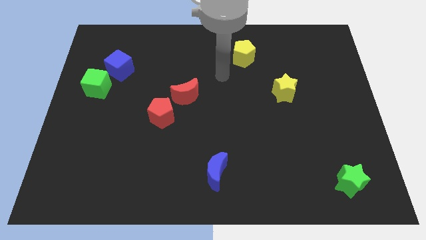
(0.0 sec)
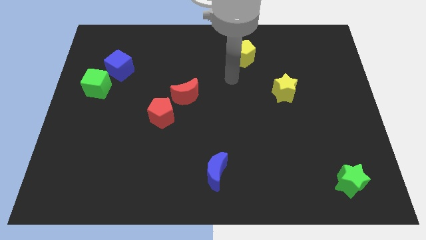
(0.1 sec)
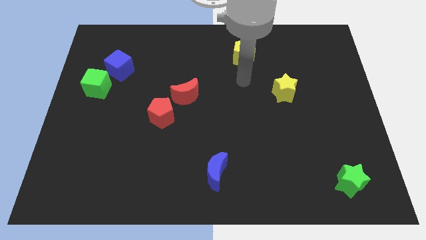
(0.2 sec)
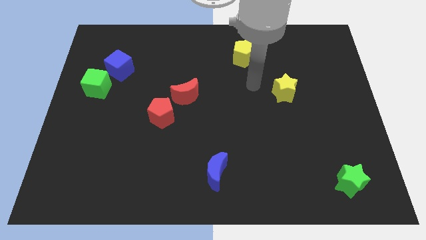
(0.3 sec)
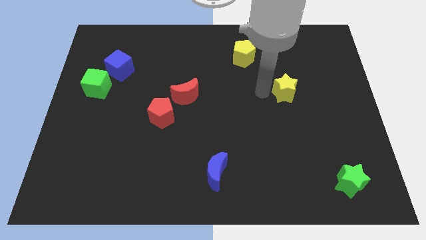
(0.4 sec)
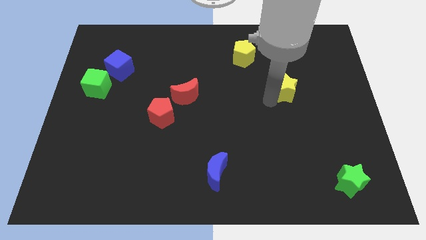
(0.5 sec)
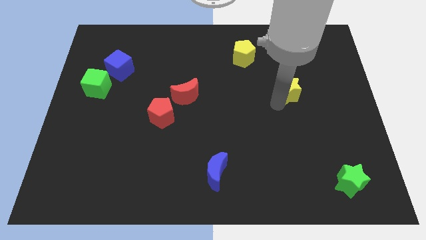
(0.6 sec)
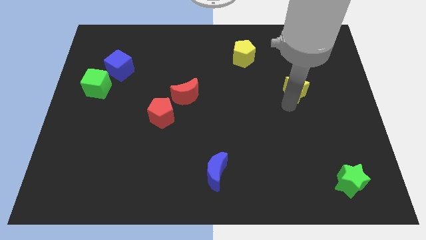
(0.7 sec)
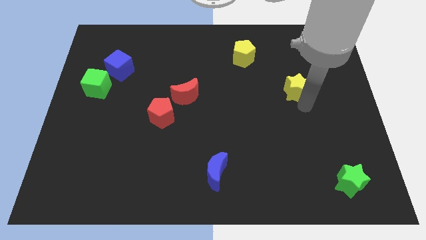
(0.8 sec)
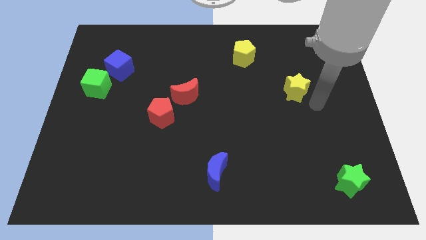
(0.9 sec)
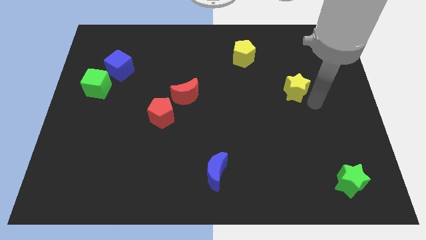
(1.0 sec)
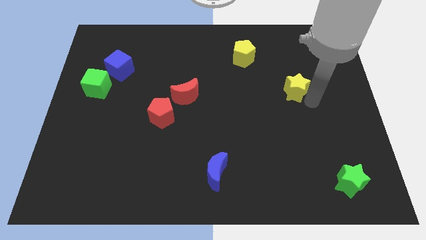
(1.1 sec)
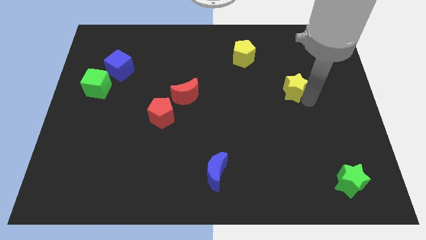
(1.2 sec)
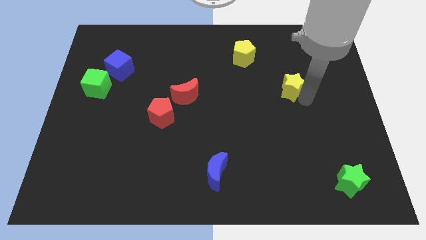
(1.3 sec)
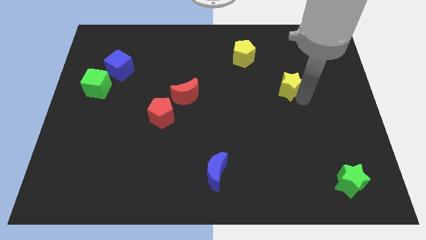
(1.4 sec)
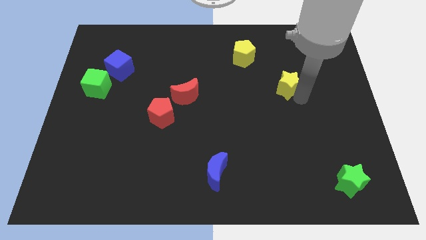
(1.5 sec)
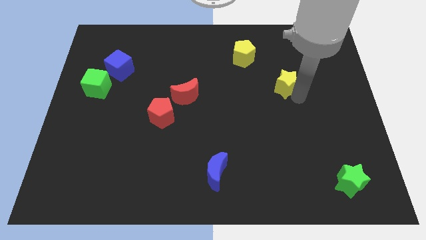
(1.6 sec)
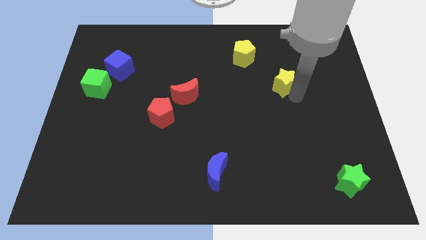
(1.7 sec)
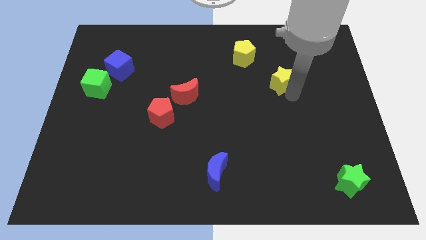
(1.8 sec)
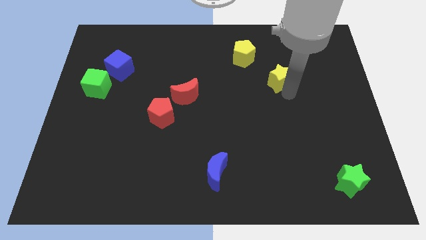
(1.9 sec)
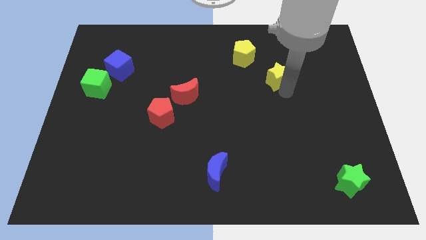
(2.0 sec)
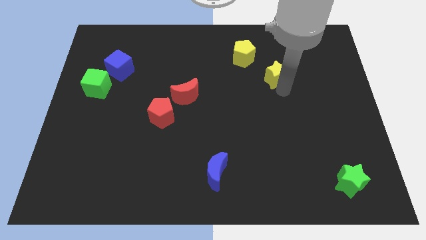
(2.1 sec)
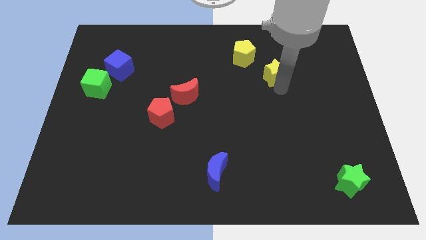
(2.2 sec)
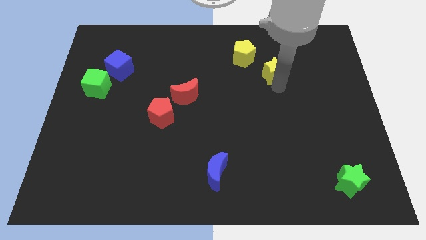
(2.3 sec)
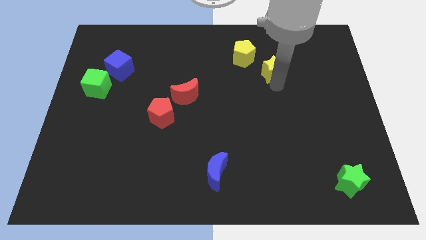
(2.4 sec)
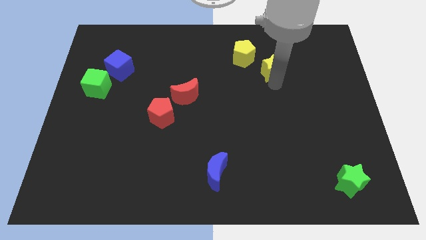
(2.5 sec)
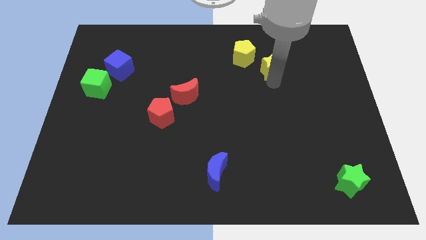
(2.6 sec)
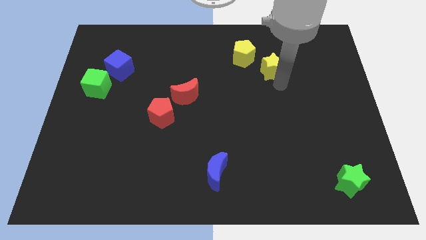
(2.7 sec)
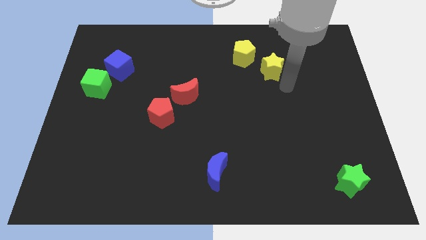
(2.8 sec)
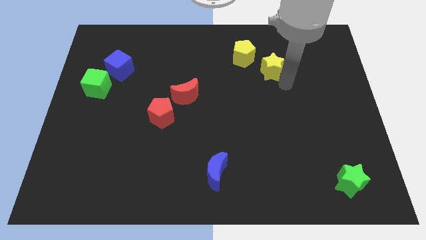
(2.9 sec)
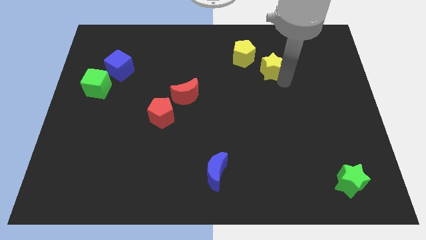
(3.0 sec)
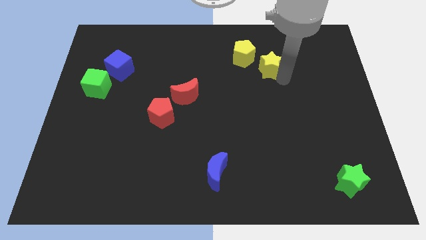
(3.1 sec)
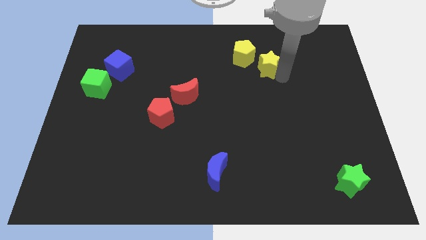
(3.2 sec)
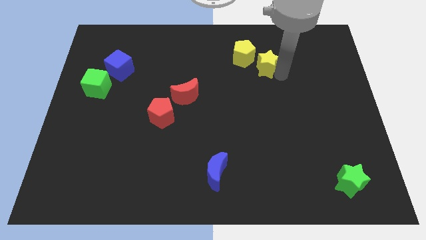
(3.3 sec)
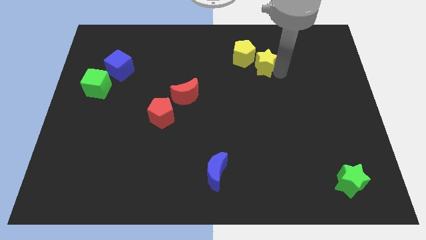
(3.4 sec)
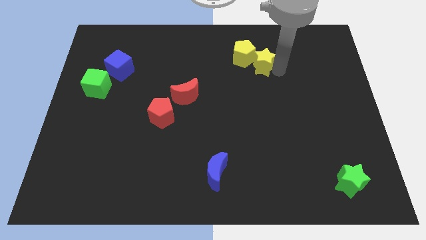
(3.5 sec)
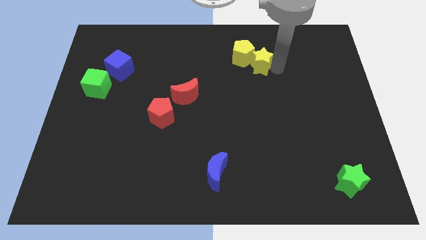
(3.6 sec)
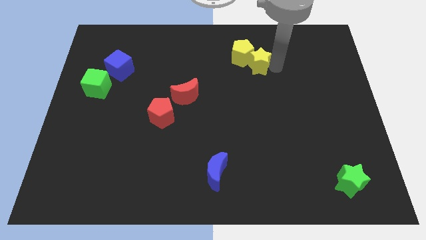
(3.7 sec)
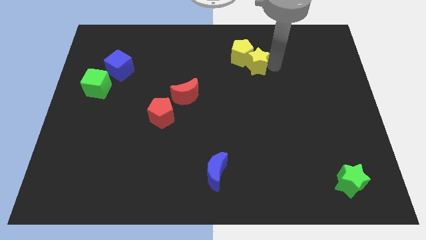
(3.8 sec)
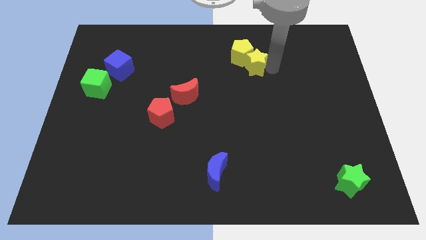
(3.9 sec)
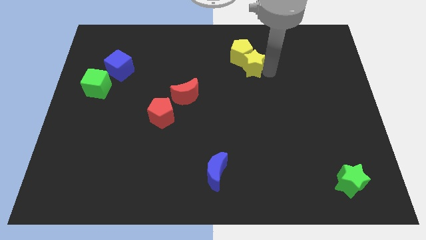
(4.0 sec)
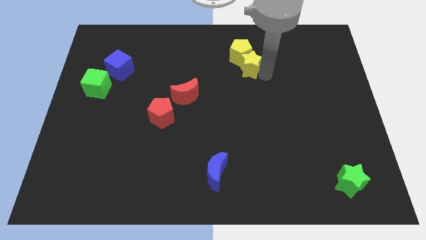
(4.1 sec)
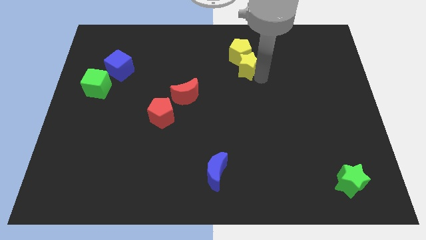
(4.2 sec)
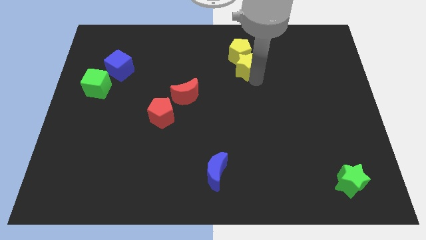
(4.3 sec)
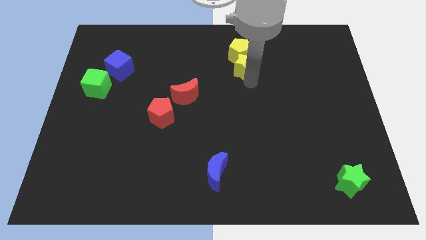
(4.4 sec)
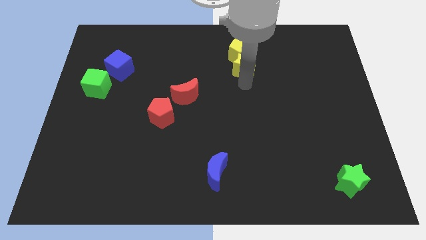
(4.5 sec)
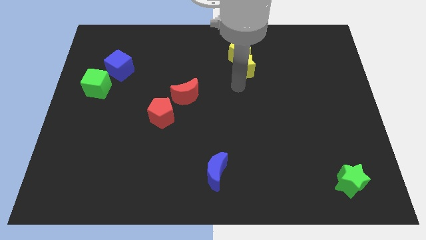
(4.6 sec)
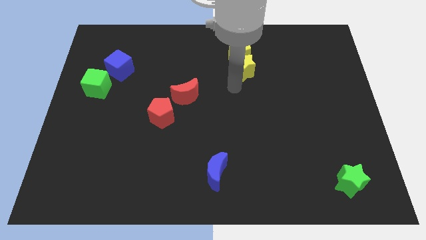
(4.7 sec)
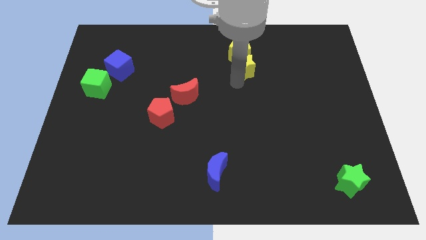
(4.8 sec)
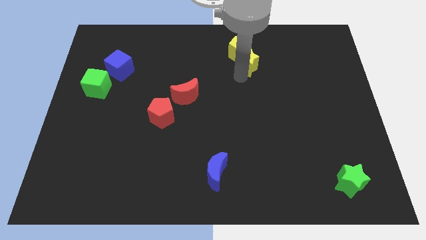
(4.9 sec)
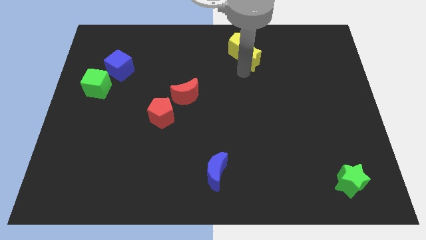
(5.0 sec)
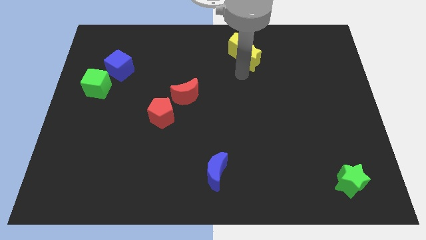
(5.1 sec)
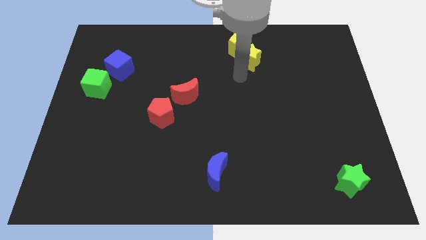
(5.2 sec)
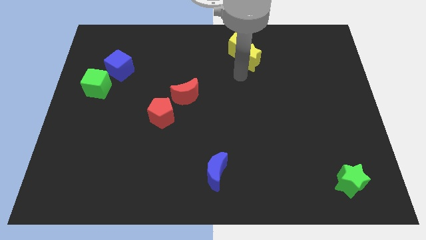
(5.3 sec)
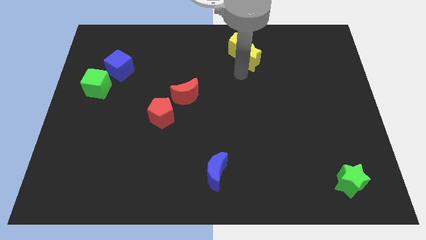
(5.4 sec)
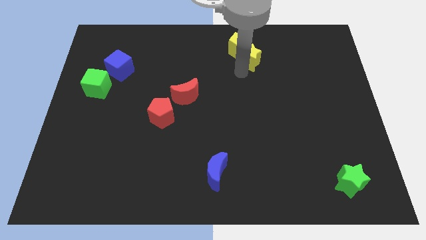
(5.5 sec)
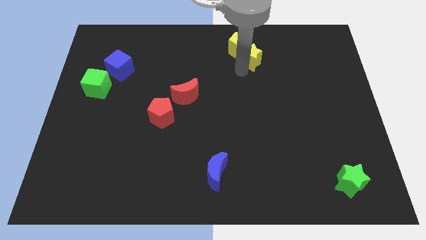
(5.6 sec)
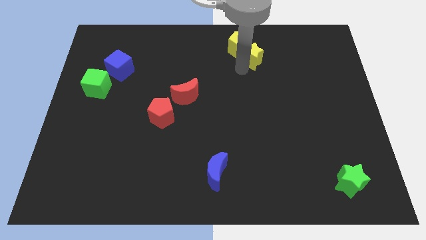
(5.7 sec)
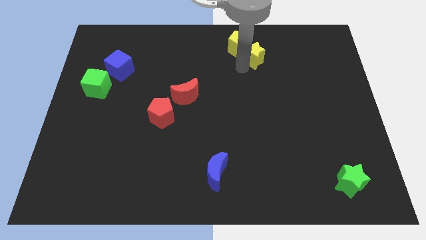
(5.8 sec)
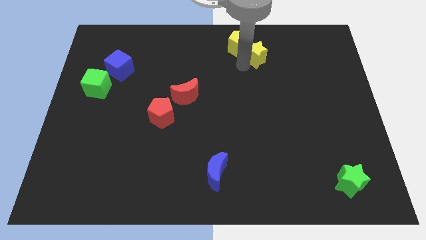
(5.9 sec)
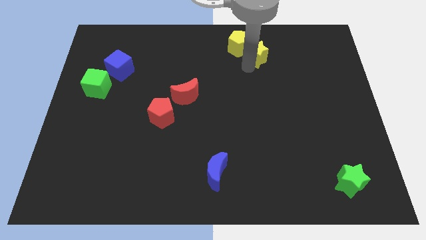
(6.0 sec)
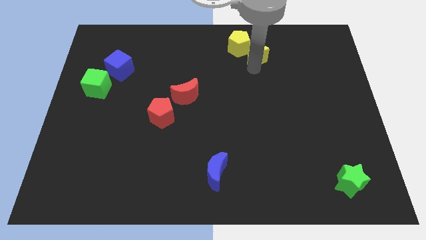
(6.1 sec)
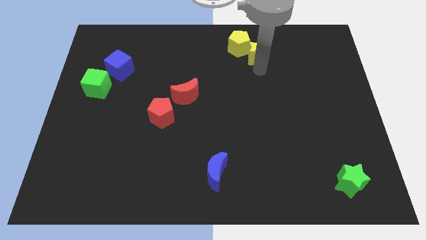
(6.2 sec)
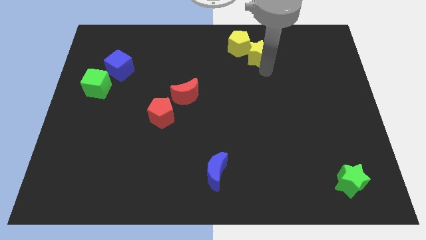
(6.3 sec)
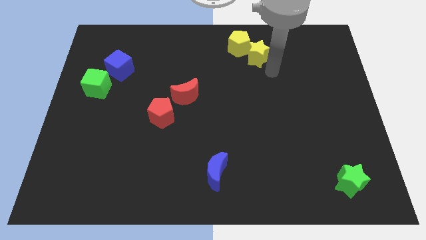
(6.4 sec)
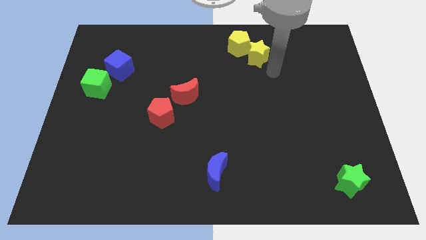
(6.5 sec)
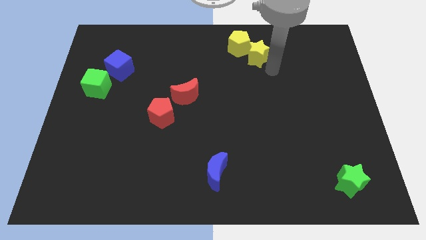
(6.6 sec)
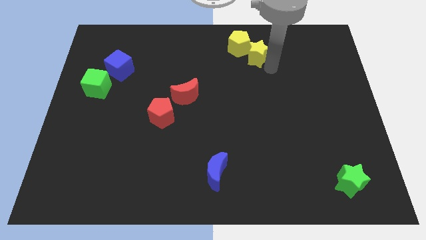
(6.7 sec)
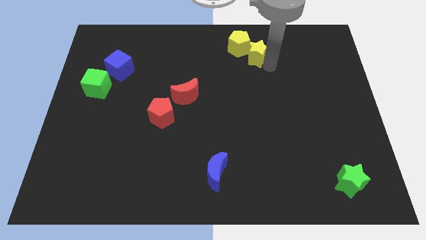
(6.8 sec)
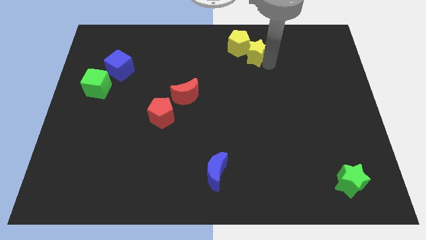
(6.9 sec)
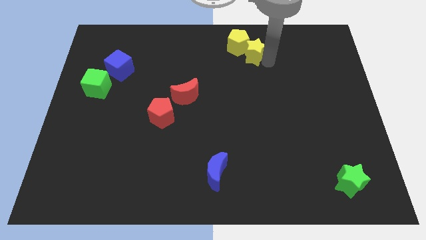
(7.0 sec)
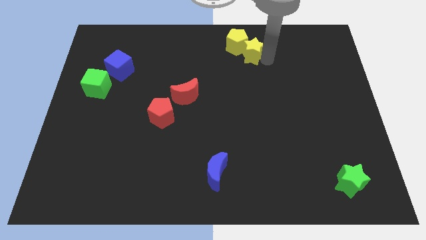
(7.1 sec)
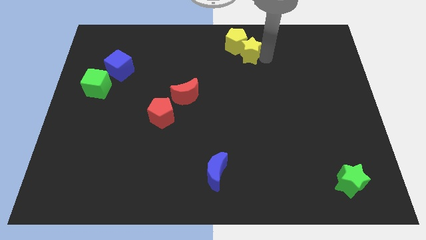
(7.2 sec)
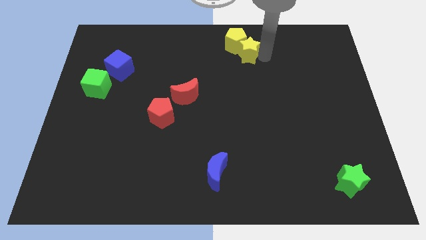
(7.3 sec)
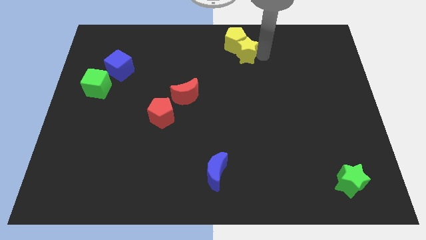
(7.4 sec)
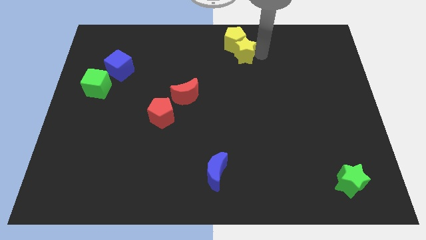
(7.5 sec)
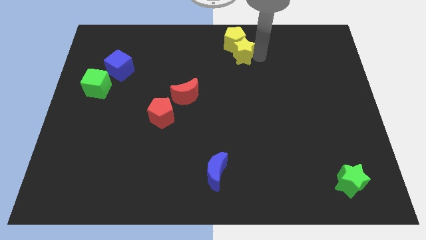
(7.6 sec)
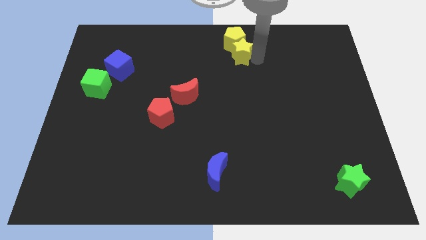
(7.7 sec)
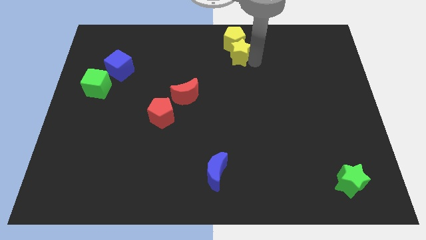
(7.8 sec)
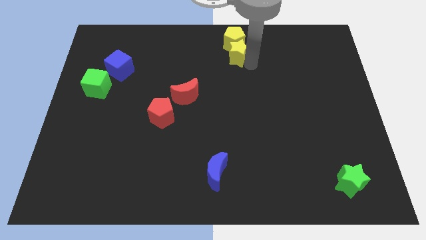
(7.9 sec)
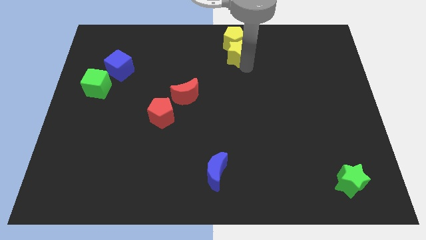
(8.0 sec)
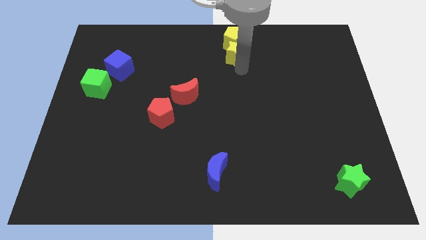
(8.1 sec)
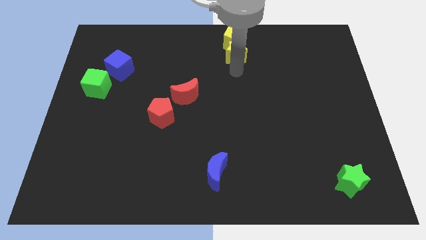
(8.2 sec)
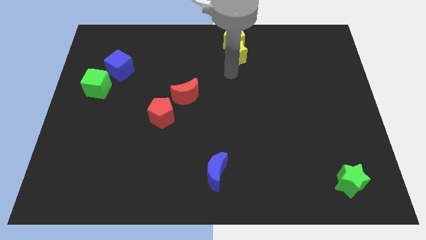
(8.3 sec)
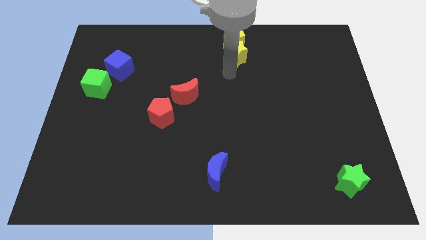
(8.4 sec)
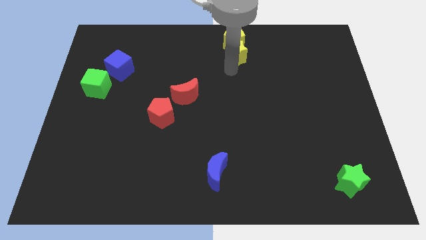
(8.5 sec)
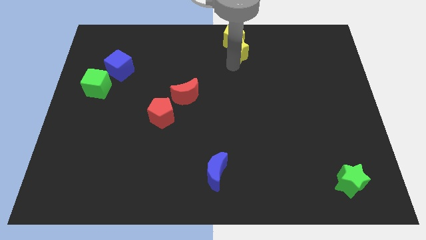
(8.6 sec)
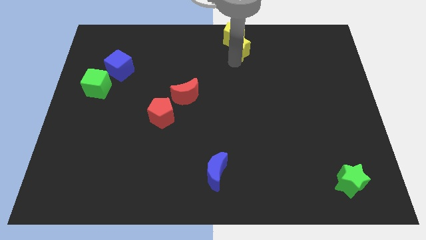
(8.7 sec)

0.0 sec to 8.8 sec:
push the yellow star to the towards your base
